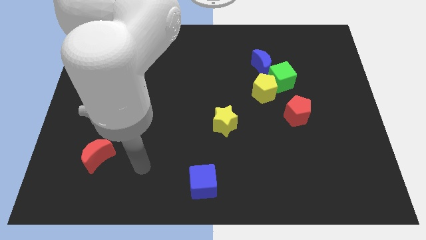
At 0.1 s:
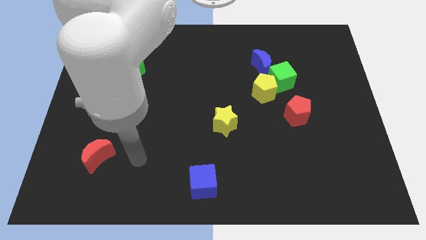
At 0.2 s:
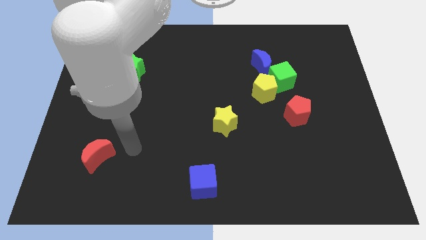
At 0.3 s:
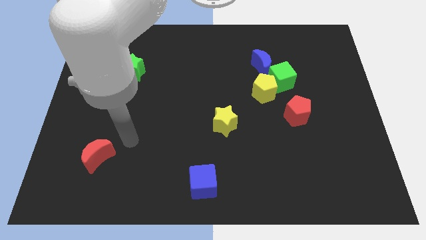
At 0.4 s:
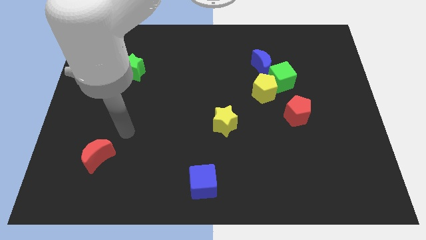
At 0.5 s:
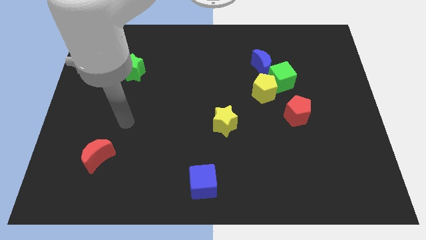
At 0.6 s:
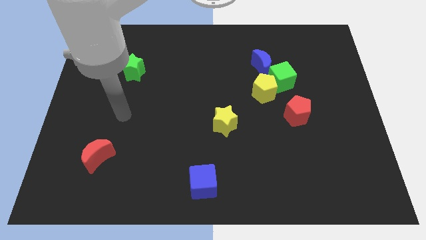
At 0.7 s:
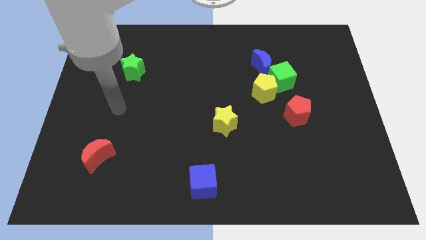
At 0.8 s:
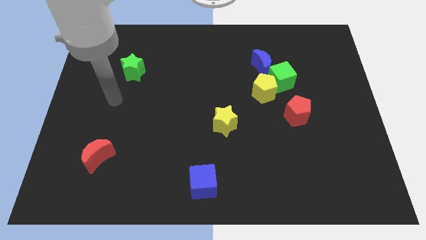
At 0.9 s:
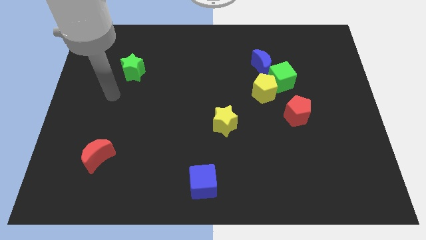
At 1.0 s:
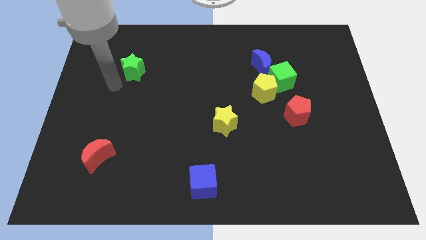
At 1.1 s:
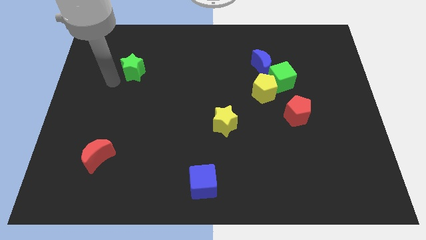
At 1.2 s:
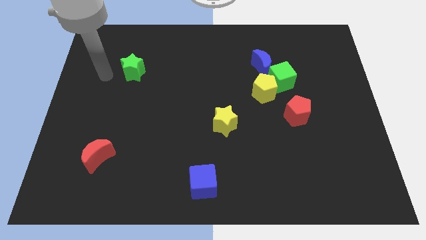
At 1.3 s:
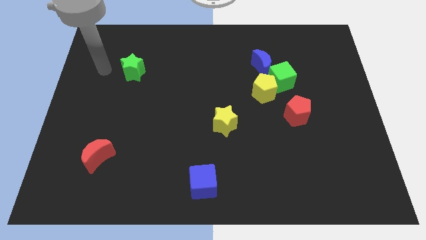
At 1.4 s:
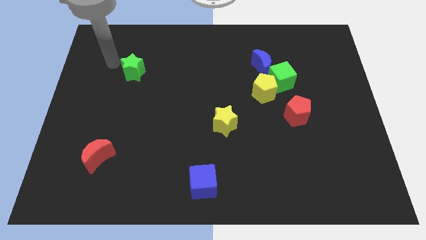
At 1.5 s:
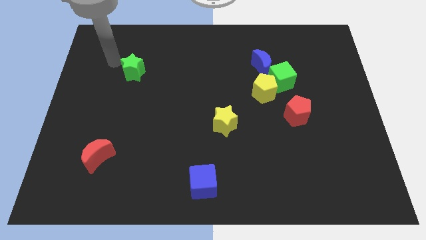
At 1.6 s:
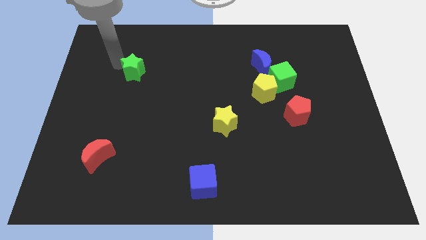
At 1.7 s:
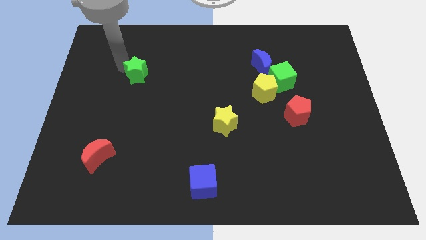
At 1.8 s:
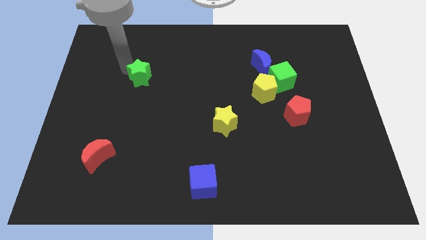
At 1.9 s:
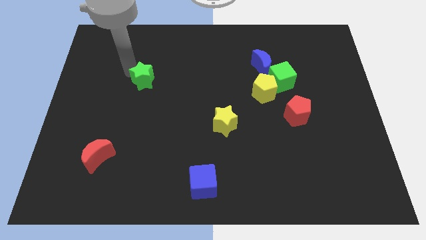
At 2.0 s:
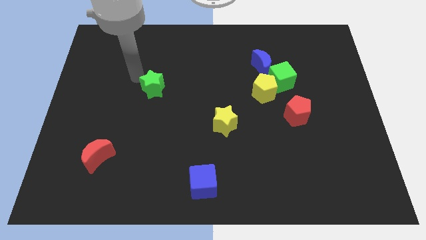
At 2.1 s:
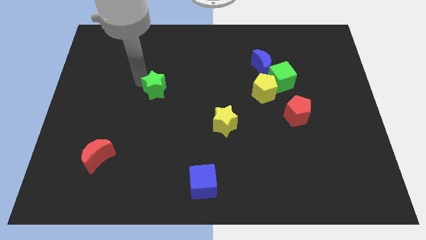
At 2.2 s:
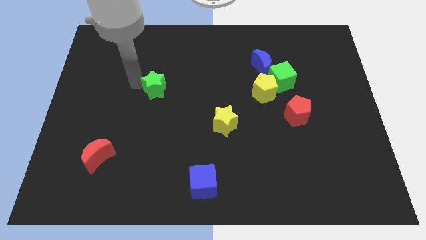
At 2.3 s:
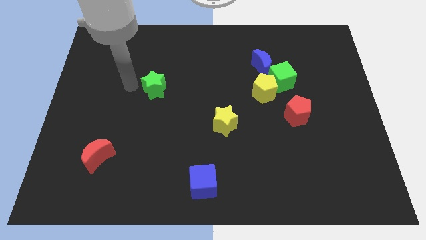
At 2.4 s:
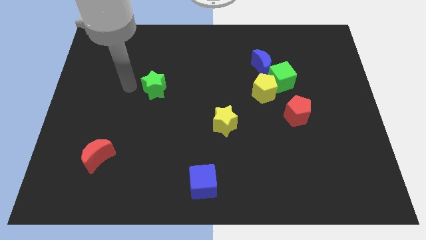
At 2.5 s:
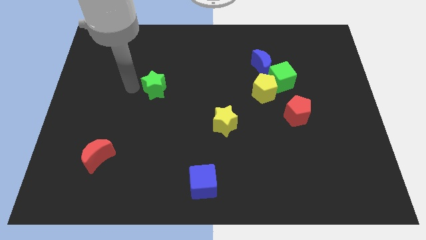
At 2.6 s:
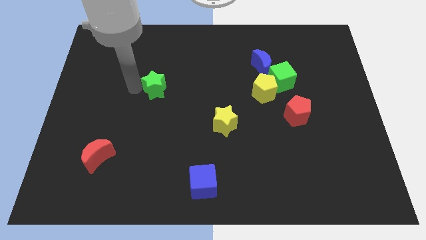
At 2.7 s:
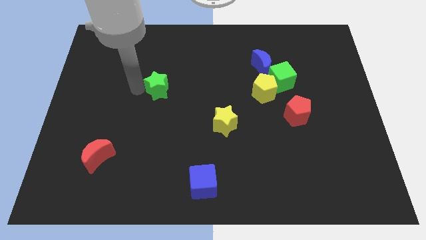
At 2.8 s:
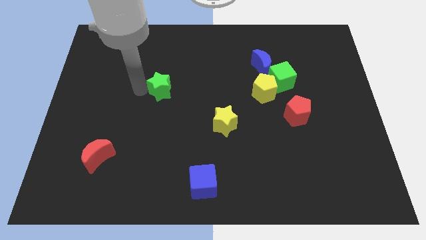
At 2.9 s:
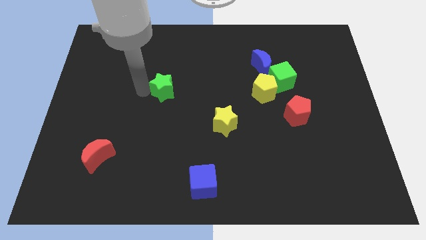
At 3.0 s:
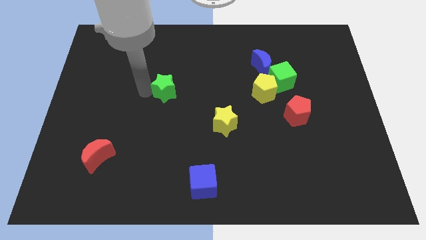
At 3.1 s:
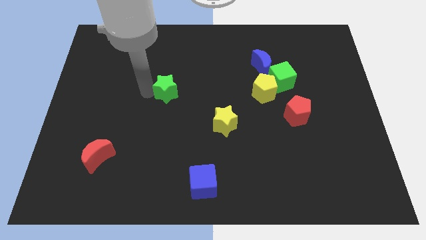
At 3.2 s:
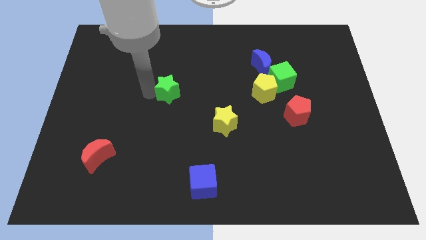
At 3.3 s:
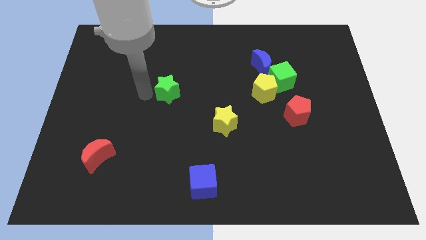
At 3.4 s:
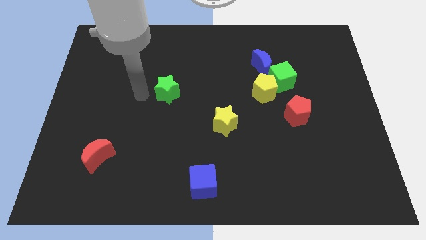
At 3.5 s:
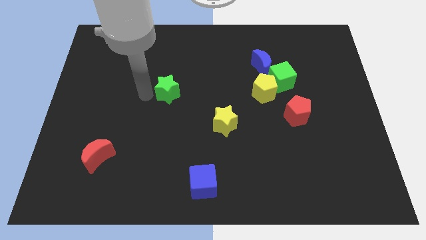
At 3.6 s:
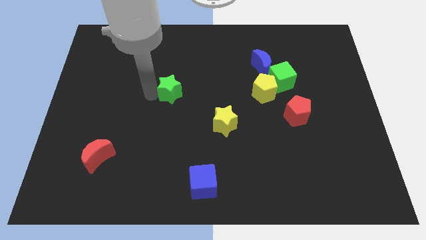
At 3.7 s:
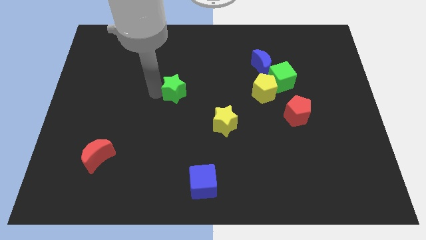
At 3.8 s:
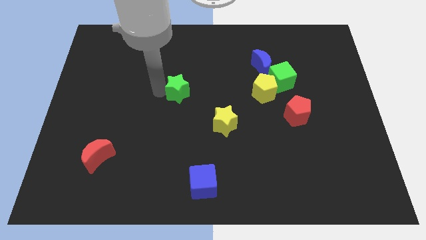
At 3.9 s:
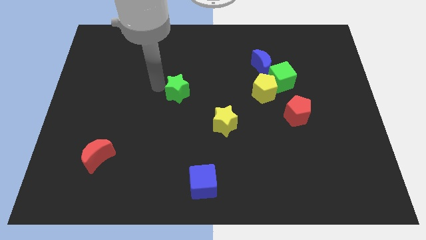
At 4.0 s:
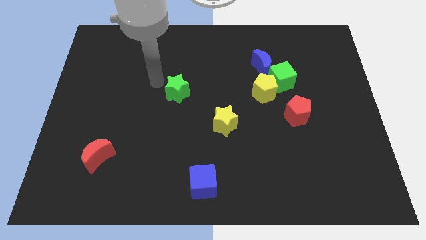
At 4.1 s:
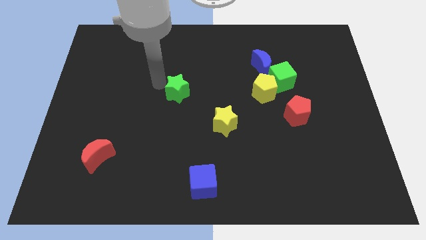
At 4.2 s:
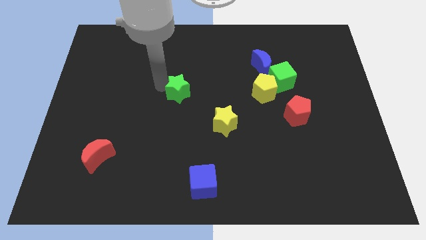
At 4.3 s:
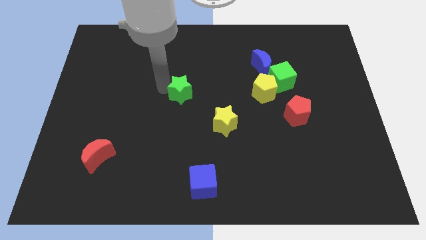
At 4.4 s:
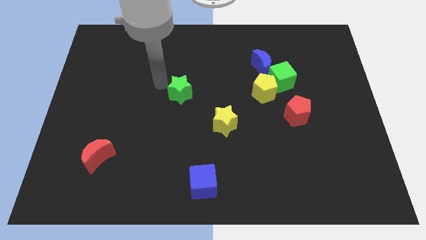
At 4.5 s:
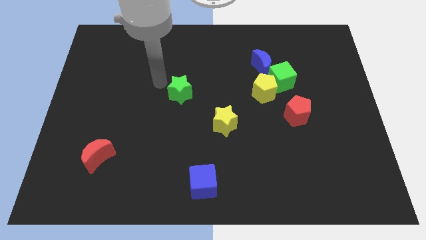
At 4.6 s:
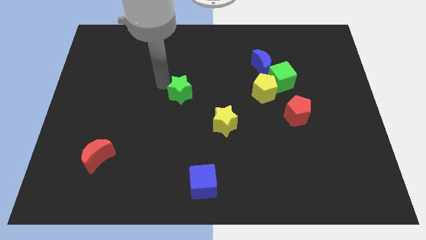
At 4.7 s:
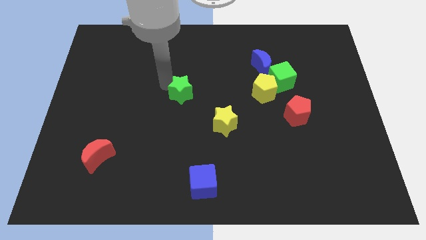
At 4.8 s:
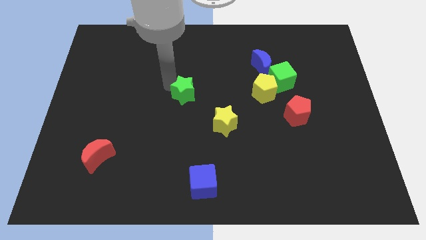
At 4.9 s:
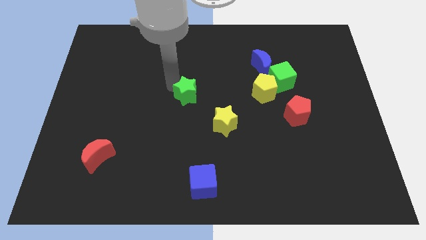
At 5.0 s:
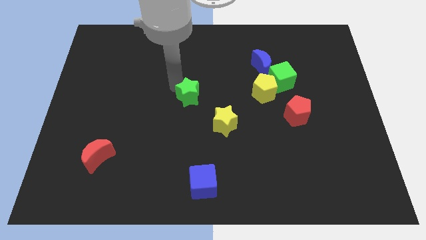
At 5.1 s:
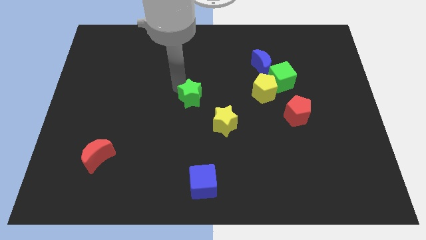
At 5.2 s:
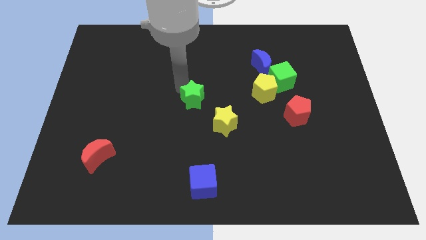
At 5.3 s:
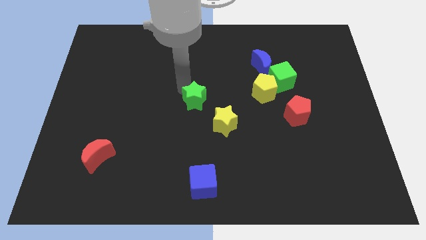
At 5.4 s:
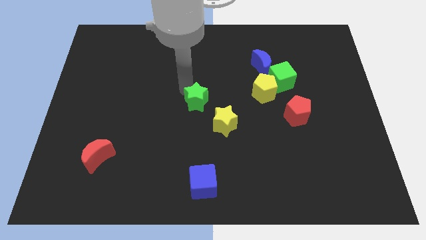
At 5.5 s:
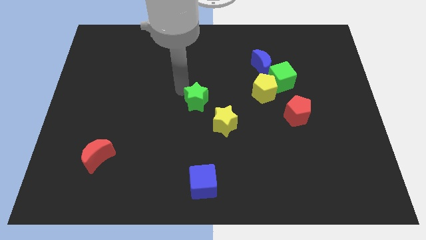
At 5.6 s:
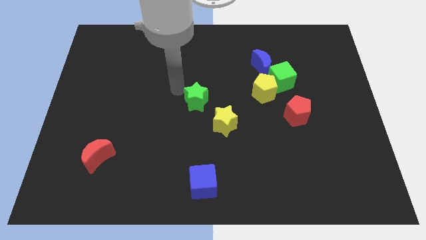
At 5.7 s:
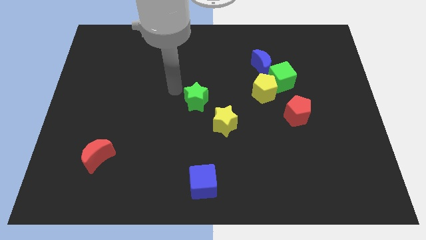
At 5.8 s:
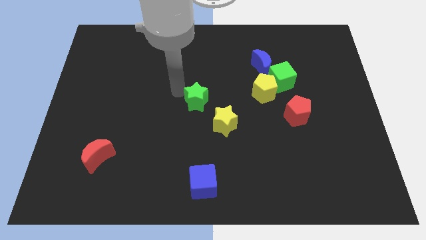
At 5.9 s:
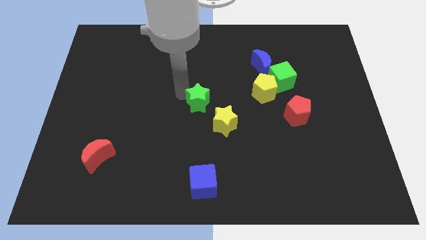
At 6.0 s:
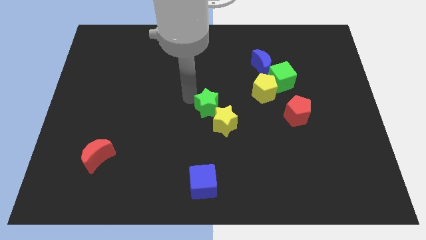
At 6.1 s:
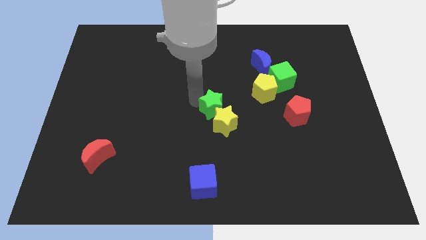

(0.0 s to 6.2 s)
move the green star next to the yellow star
